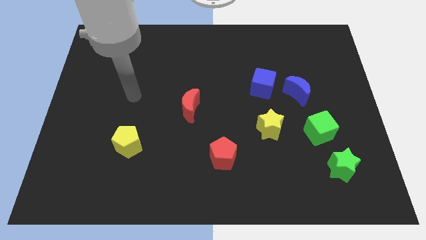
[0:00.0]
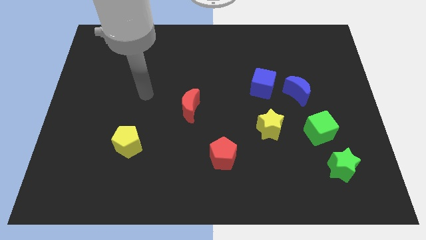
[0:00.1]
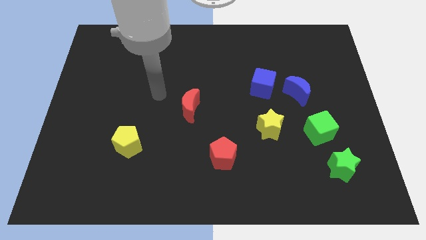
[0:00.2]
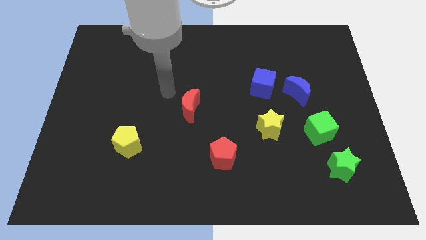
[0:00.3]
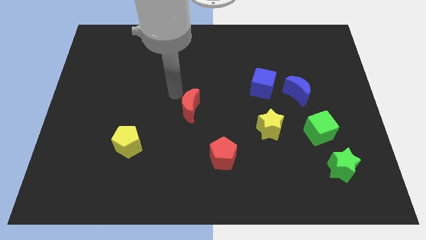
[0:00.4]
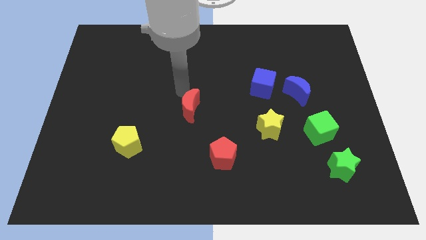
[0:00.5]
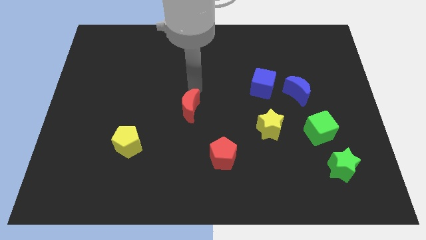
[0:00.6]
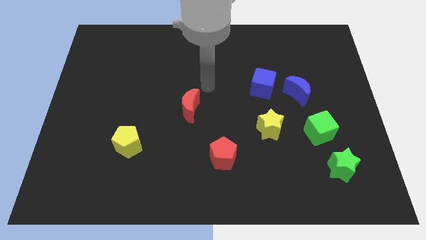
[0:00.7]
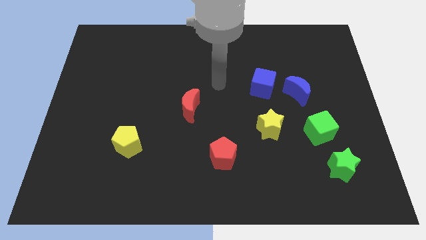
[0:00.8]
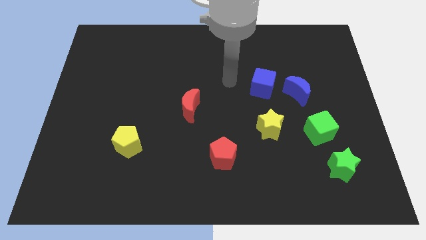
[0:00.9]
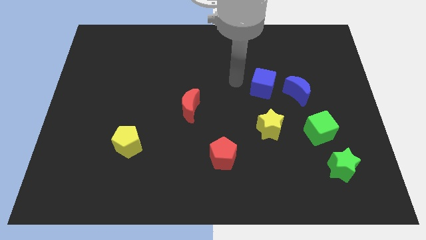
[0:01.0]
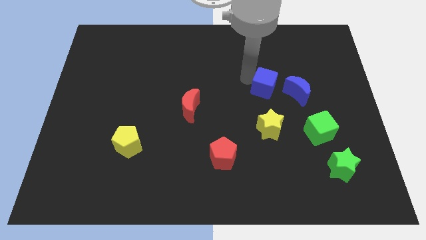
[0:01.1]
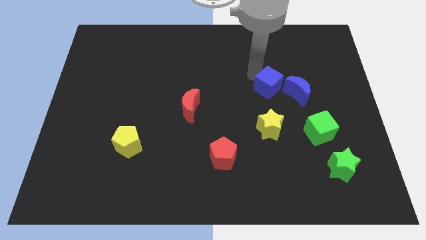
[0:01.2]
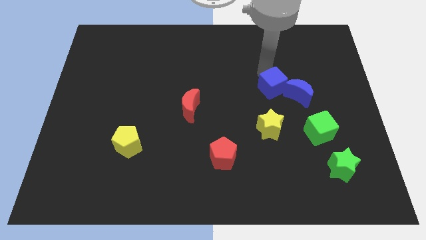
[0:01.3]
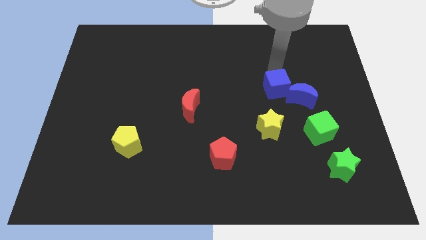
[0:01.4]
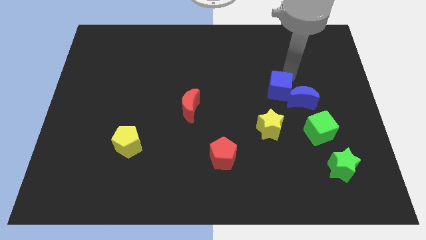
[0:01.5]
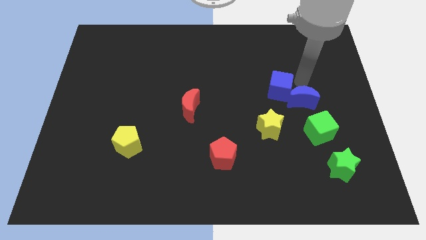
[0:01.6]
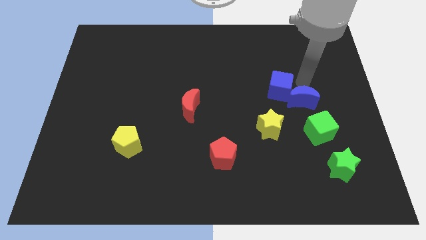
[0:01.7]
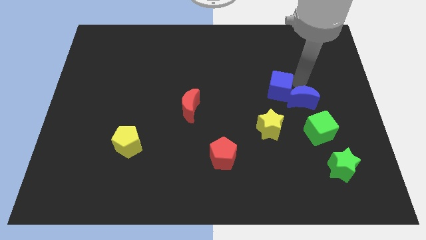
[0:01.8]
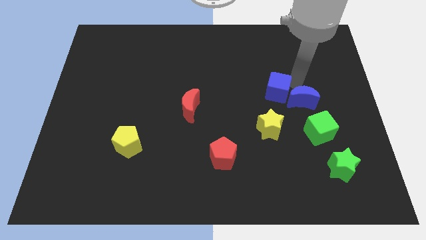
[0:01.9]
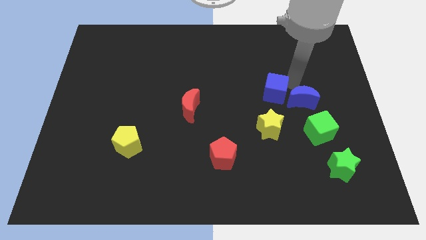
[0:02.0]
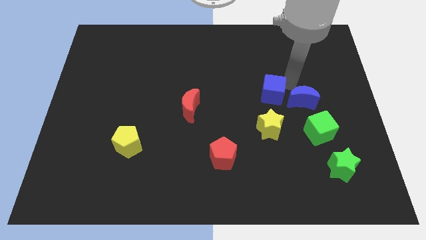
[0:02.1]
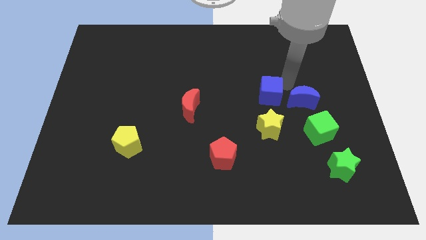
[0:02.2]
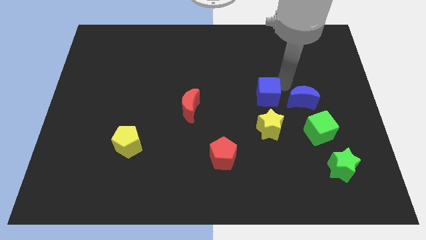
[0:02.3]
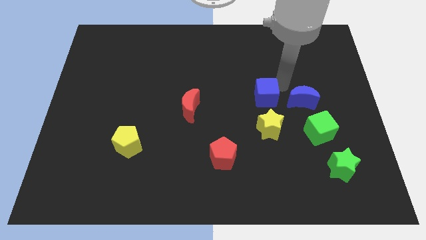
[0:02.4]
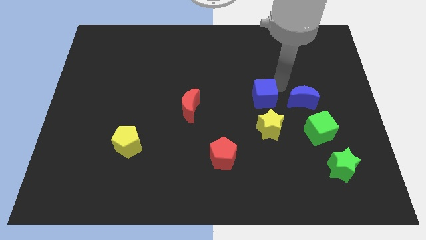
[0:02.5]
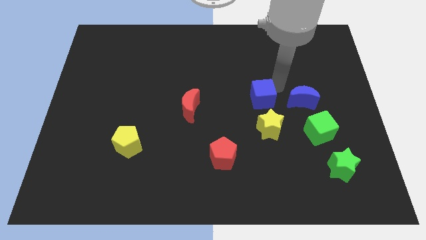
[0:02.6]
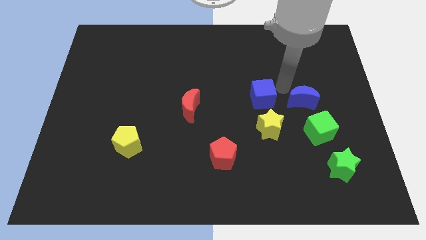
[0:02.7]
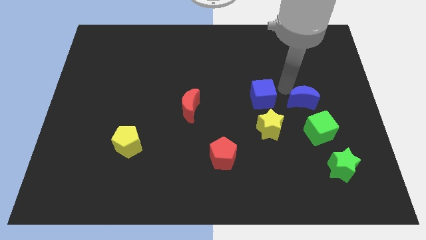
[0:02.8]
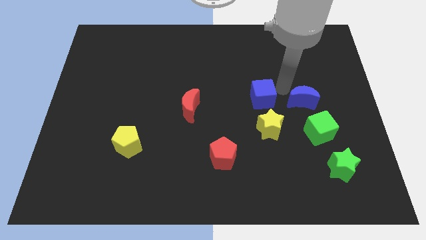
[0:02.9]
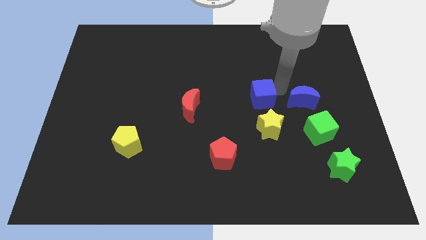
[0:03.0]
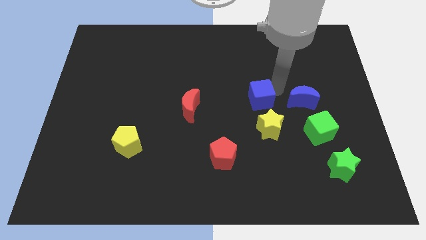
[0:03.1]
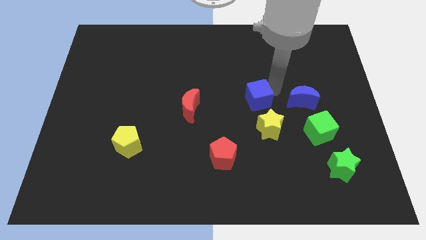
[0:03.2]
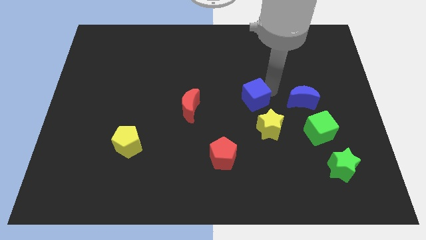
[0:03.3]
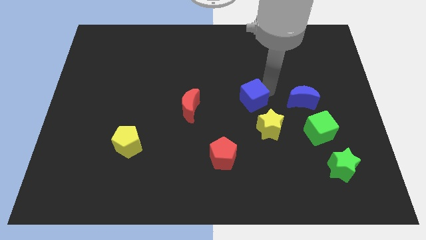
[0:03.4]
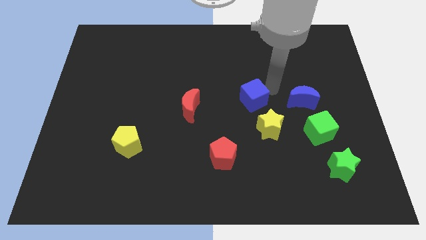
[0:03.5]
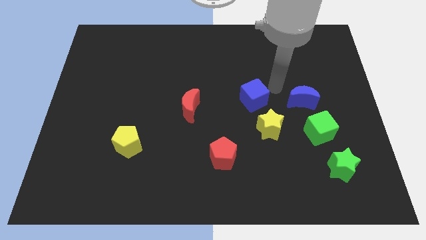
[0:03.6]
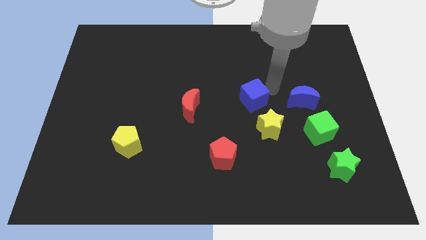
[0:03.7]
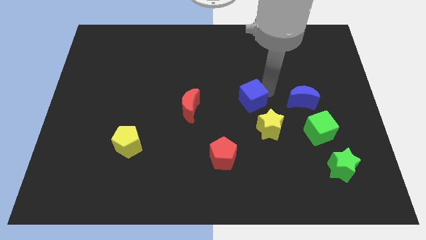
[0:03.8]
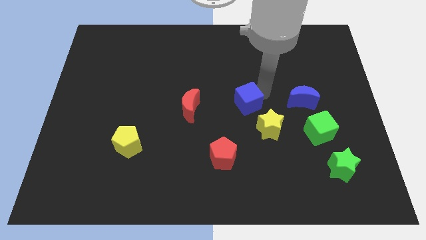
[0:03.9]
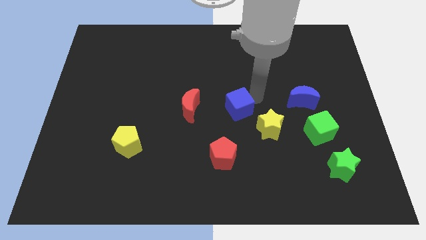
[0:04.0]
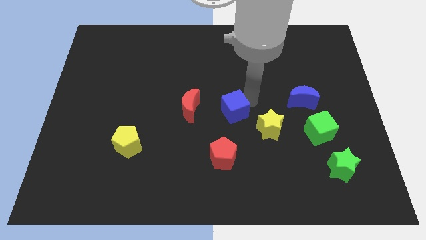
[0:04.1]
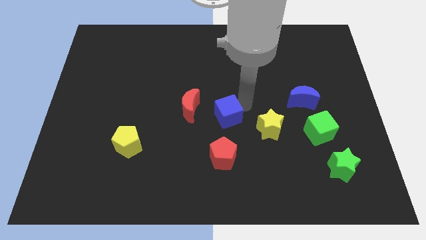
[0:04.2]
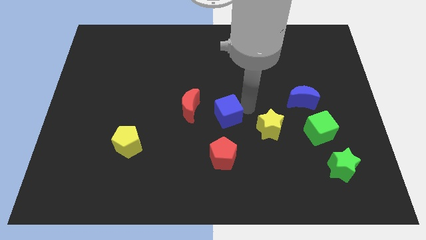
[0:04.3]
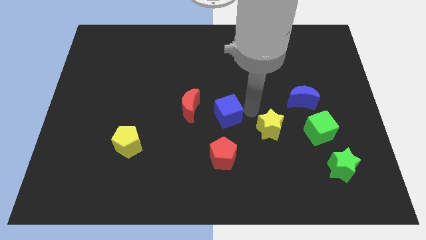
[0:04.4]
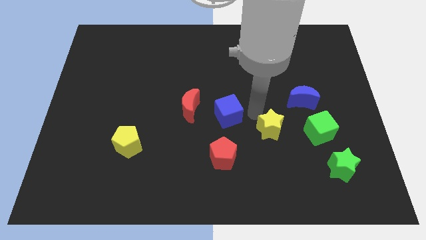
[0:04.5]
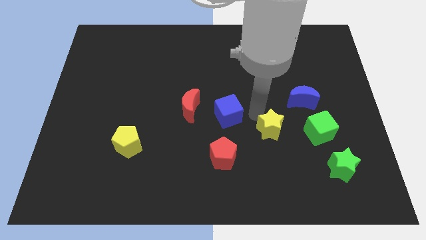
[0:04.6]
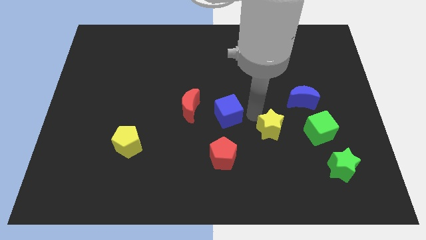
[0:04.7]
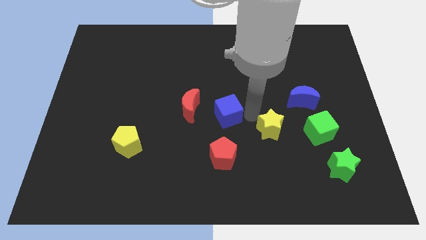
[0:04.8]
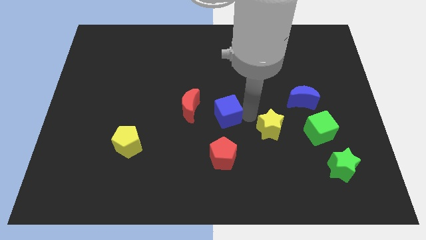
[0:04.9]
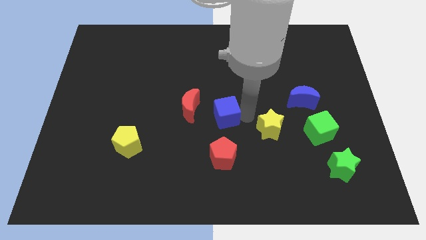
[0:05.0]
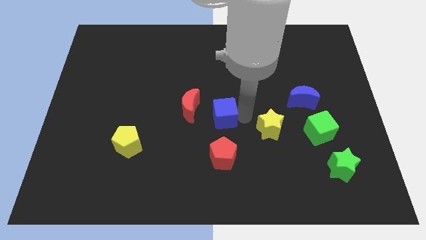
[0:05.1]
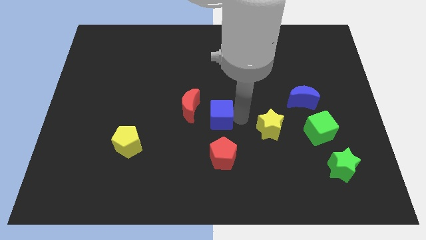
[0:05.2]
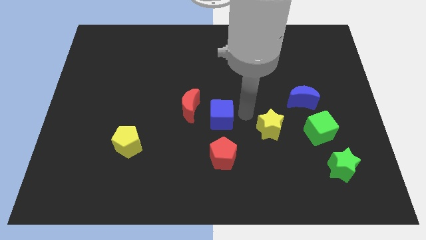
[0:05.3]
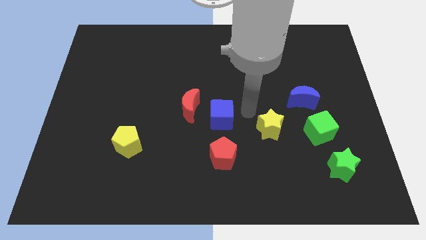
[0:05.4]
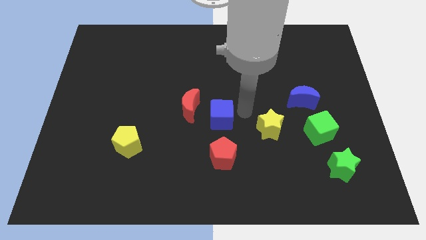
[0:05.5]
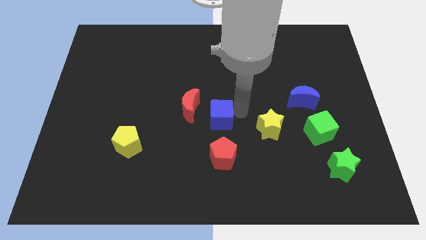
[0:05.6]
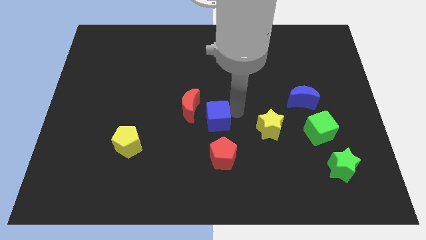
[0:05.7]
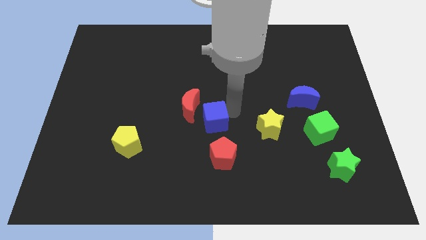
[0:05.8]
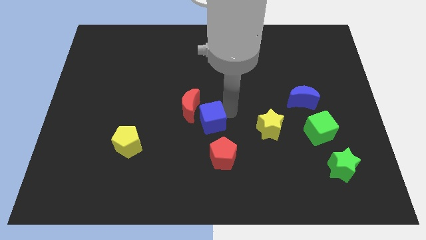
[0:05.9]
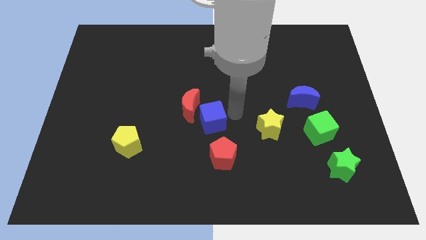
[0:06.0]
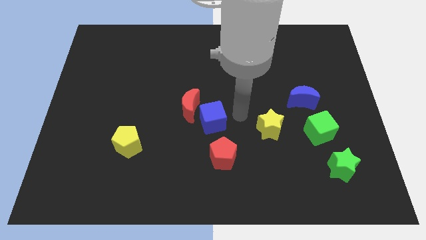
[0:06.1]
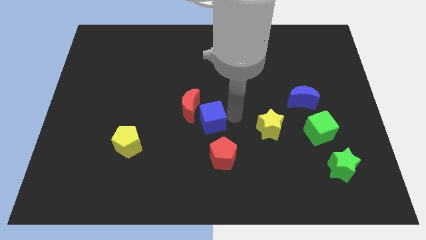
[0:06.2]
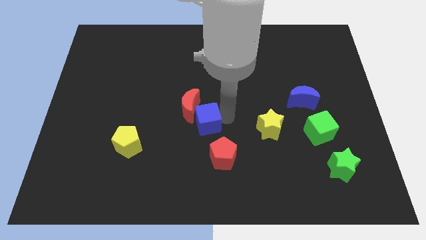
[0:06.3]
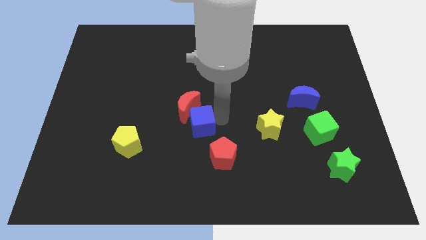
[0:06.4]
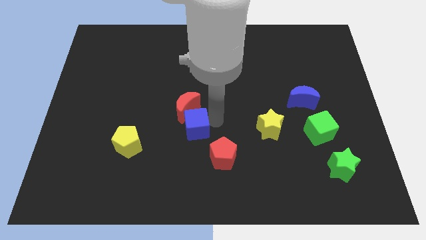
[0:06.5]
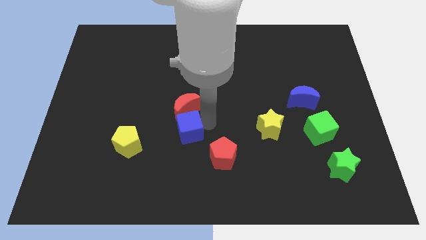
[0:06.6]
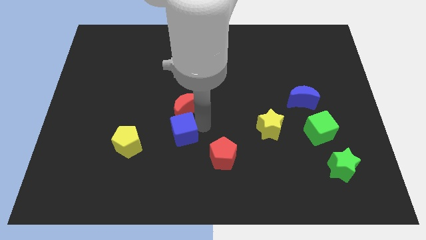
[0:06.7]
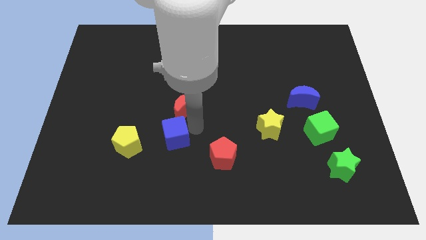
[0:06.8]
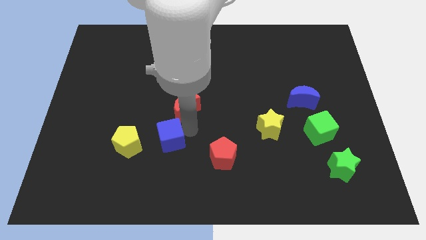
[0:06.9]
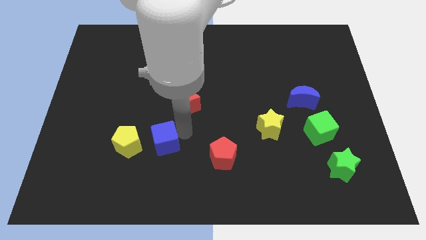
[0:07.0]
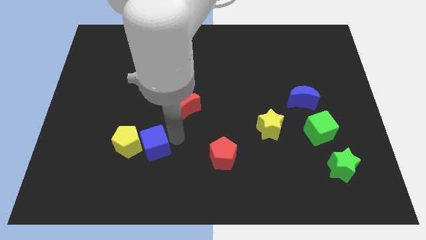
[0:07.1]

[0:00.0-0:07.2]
put the blue cube to the yellow pentagon
